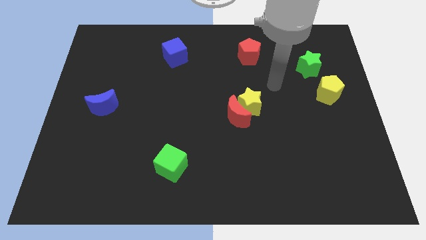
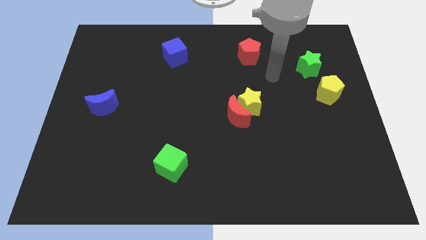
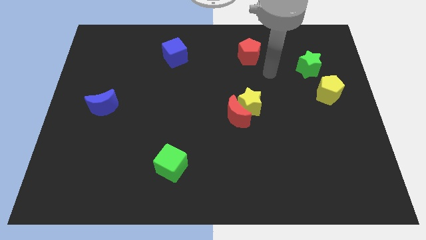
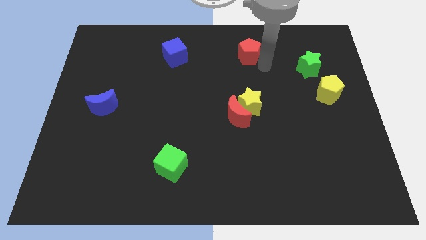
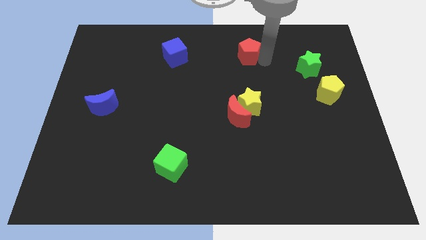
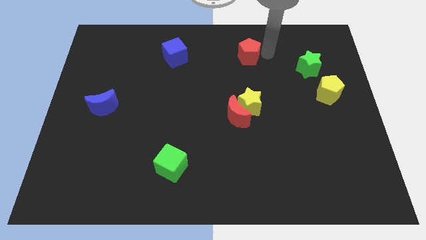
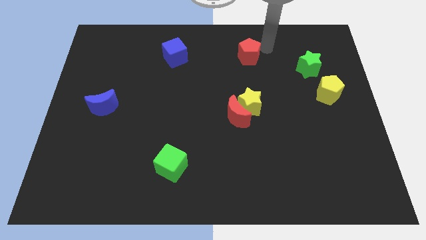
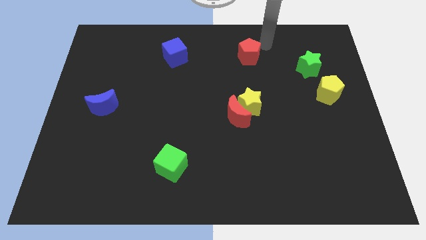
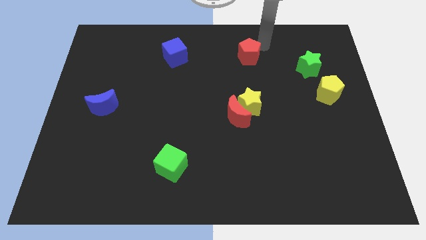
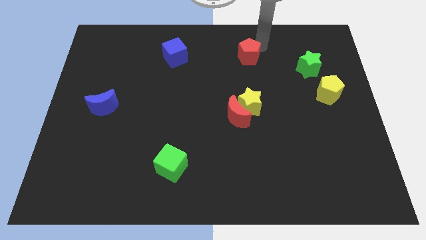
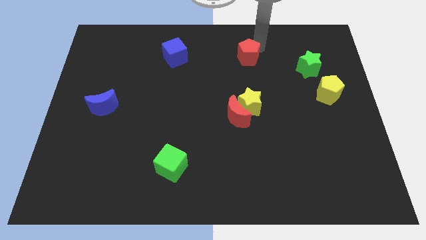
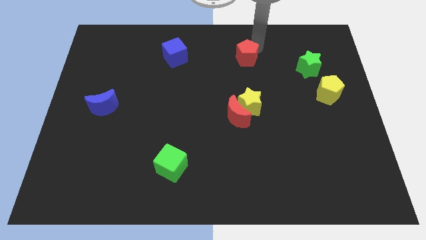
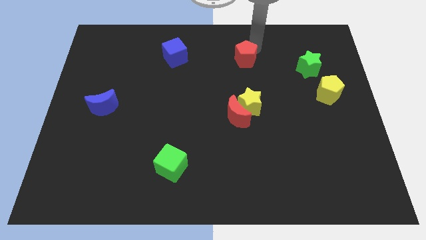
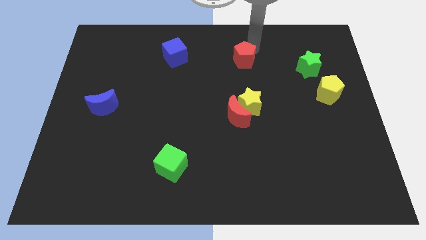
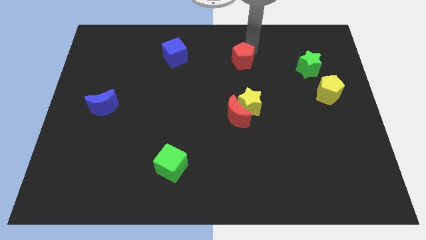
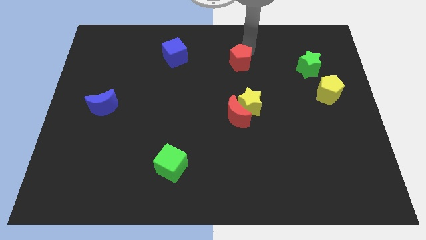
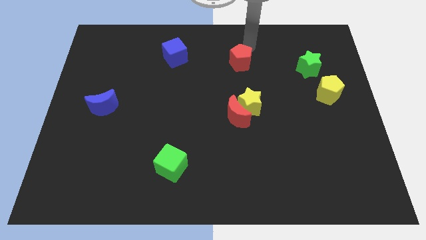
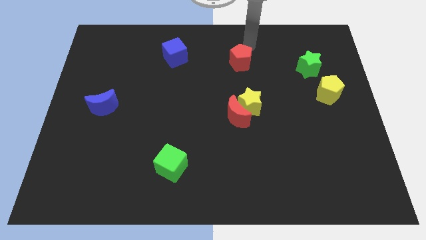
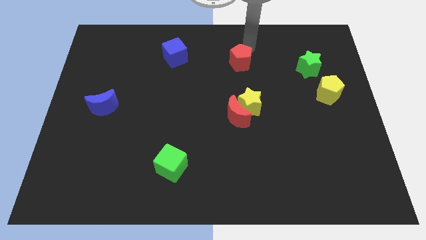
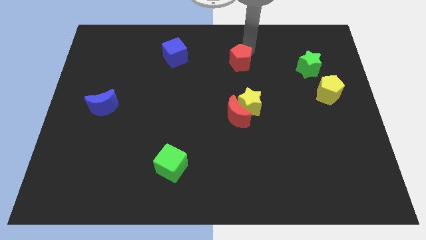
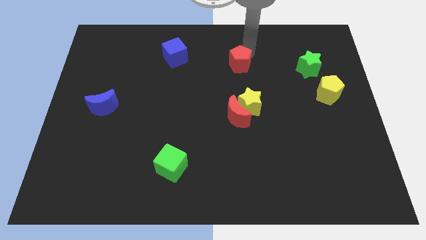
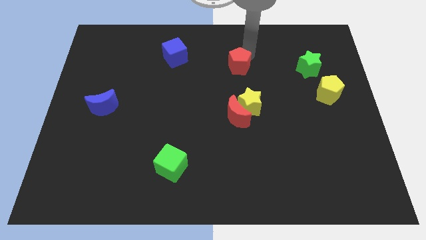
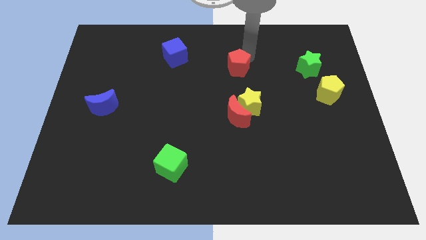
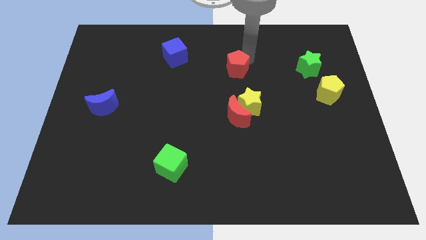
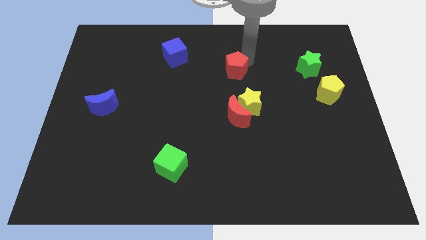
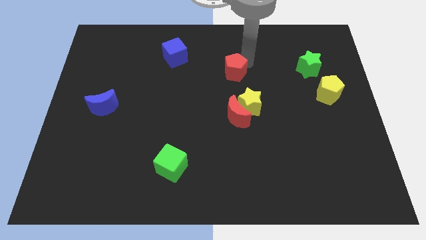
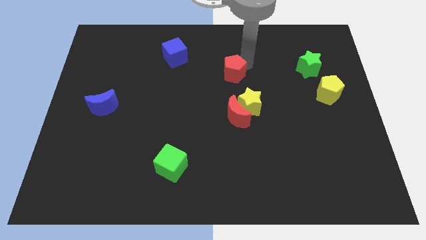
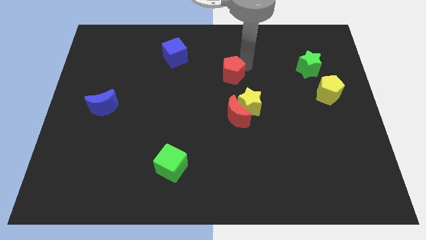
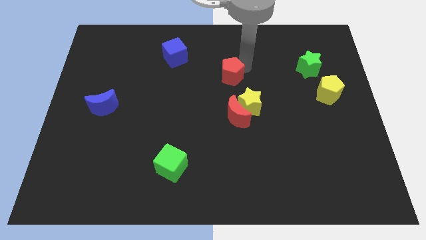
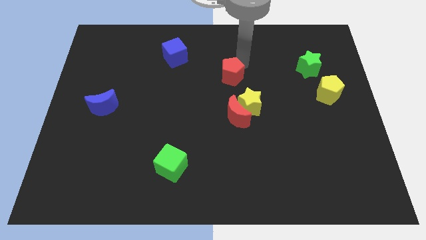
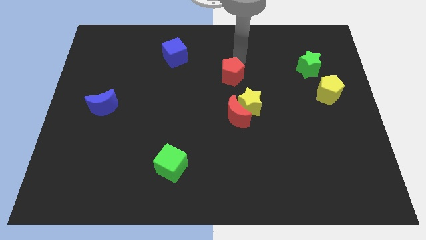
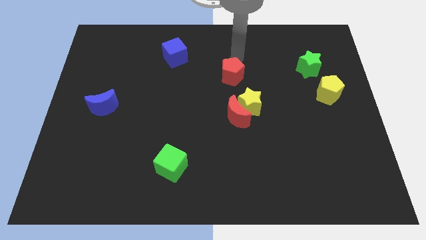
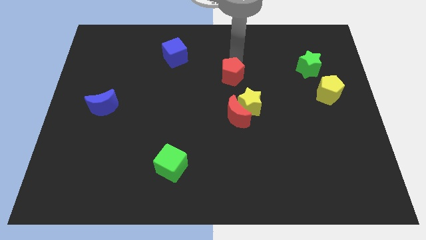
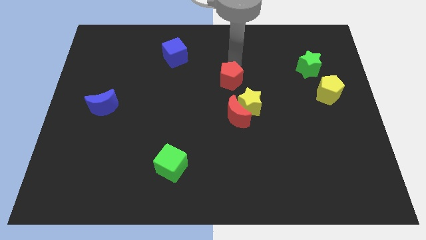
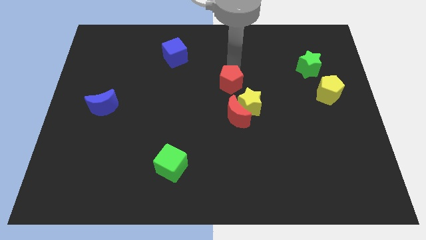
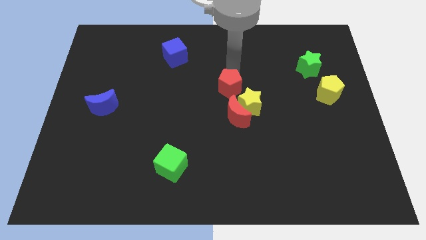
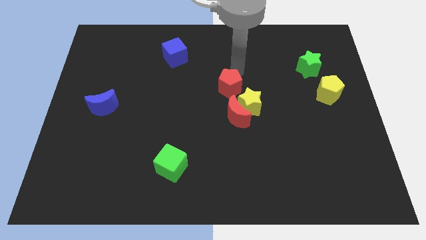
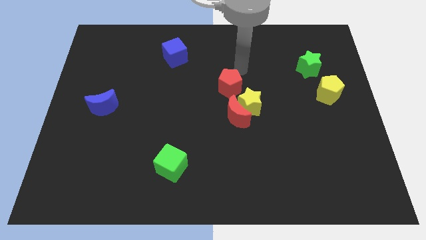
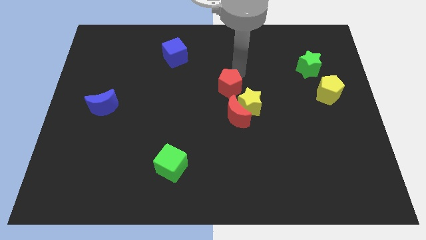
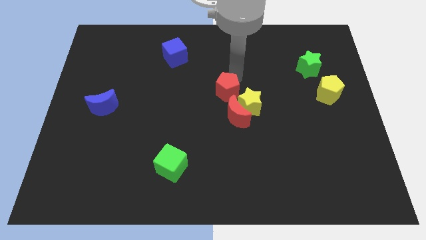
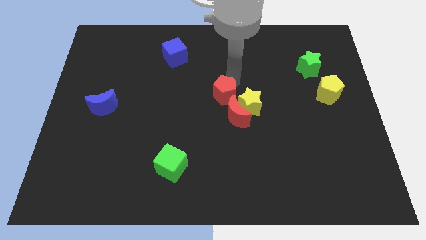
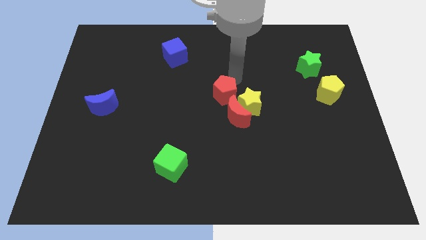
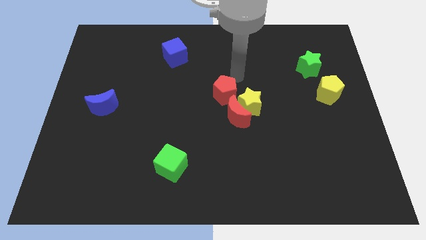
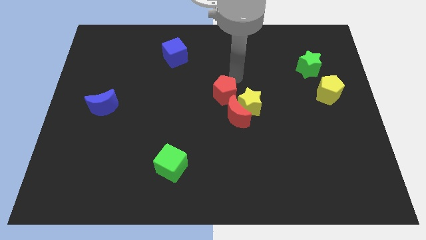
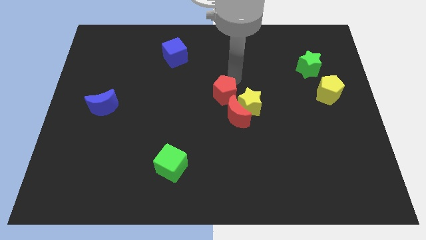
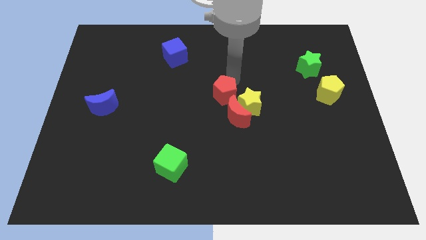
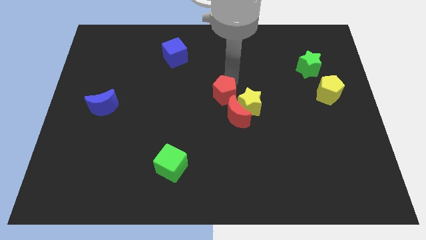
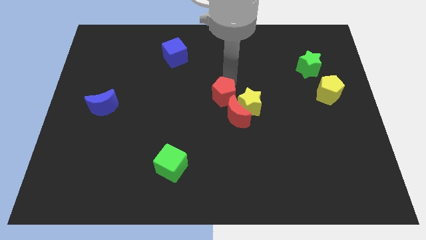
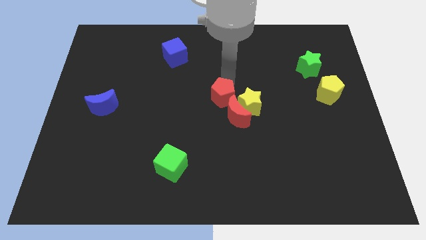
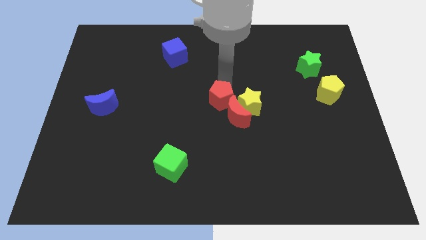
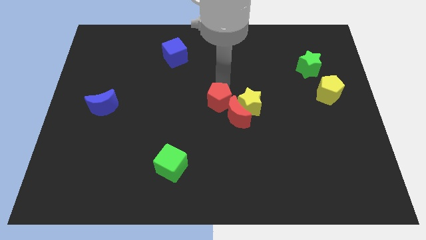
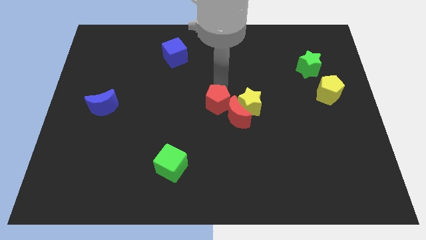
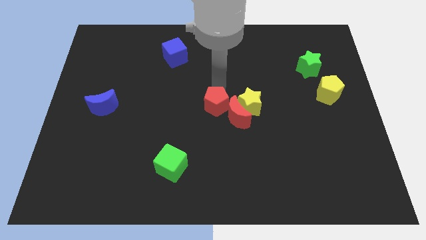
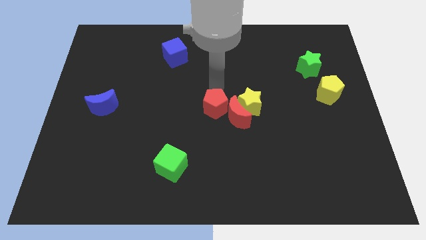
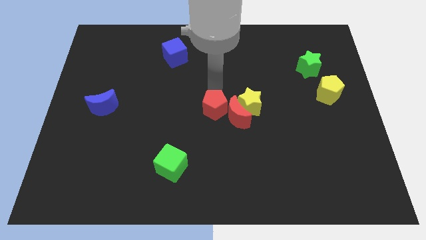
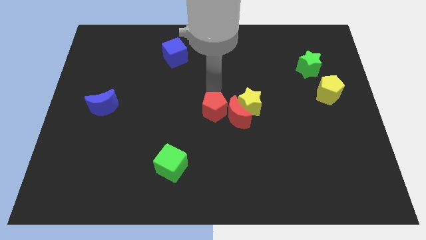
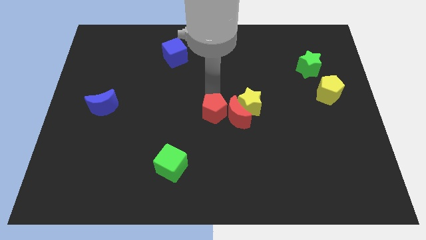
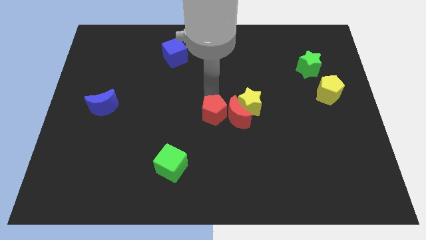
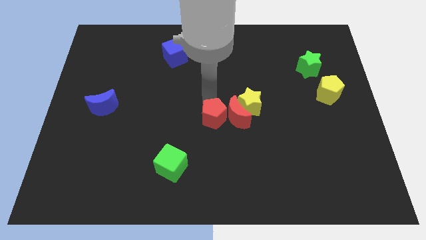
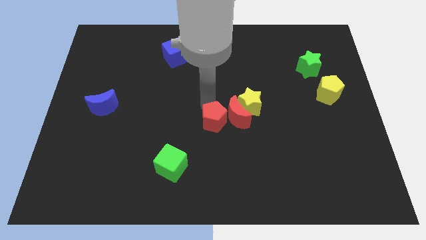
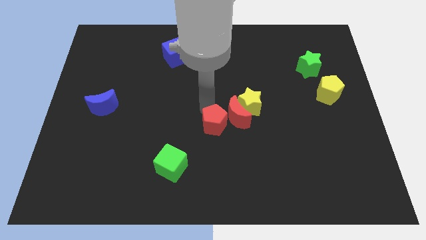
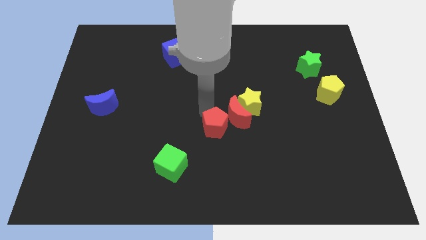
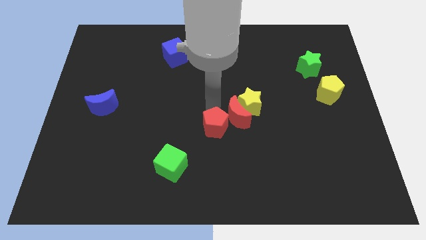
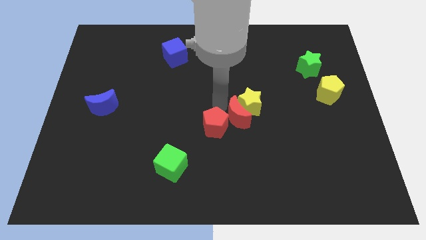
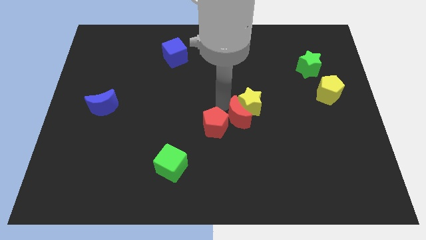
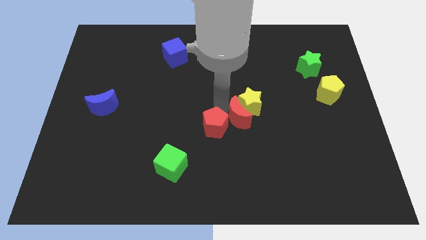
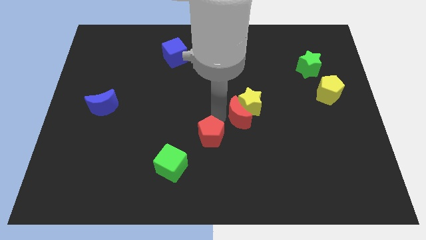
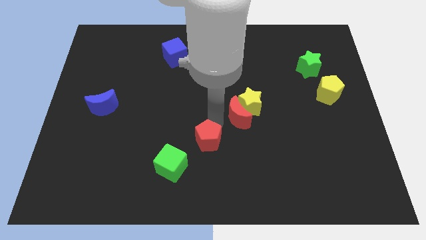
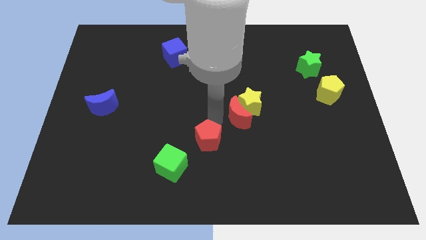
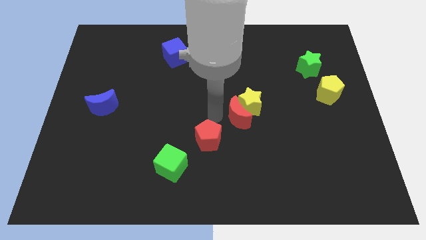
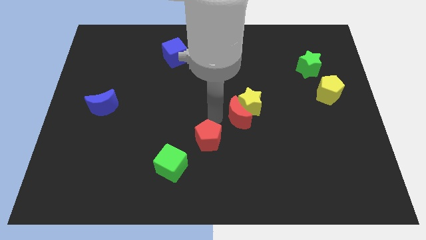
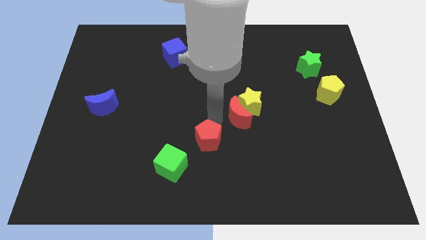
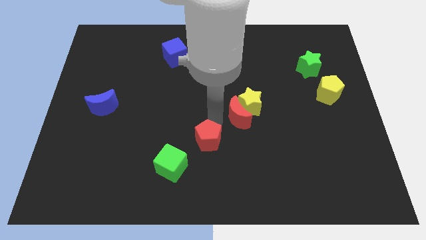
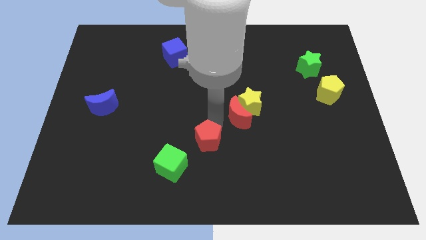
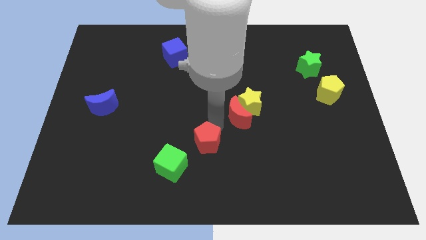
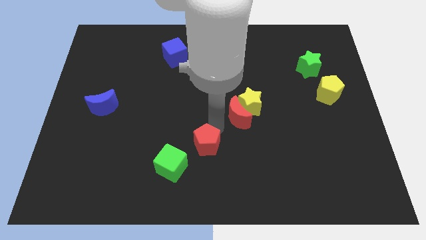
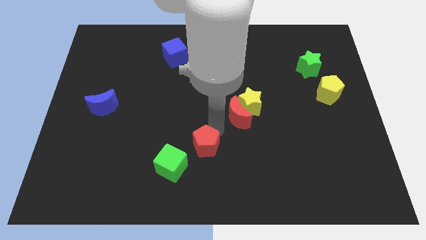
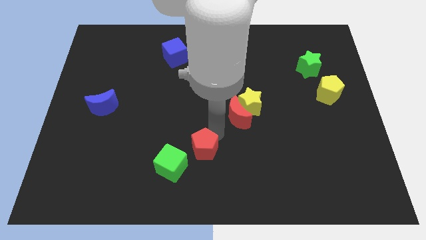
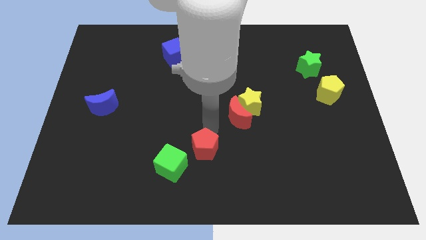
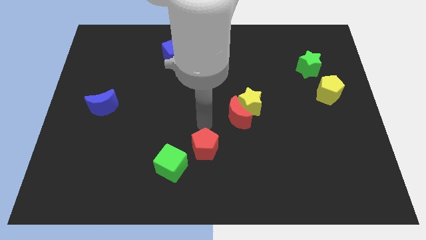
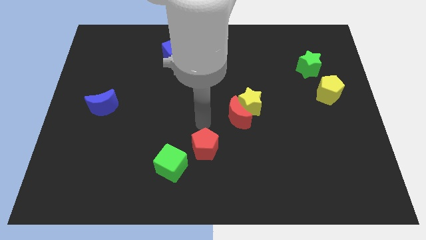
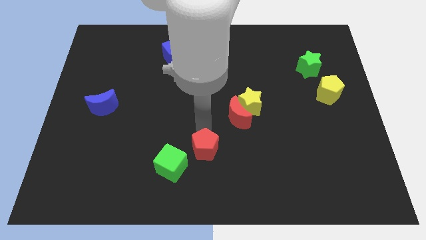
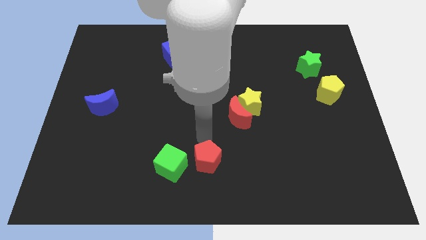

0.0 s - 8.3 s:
slide the red pentagon to the bottom side
